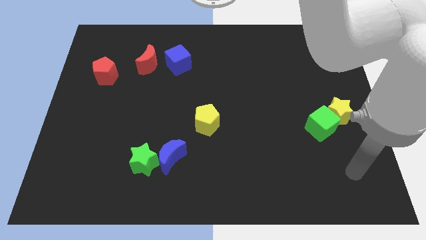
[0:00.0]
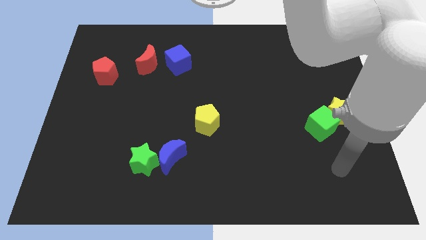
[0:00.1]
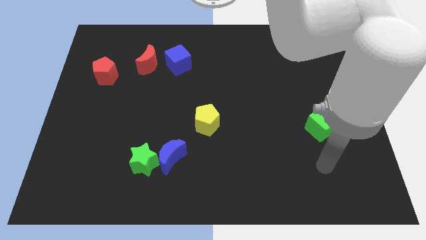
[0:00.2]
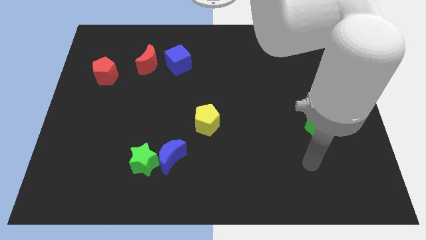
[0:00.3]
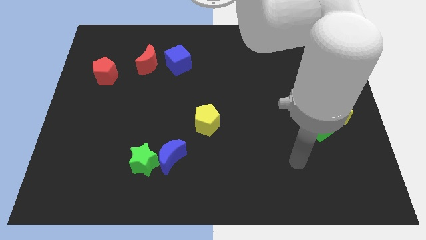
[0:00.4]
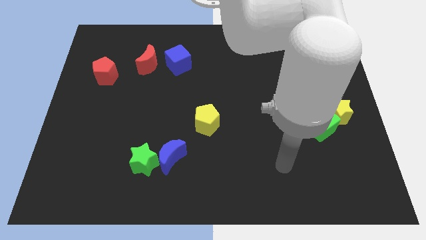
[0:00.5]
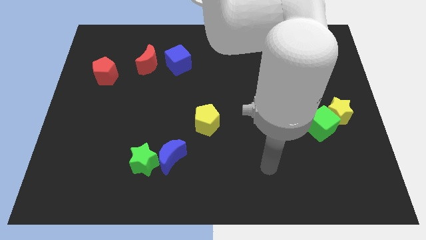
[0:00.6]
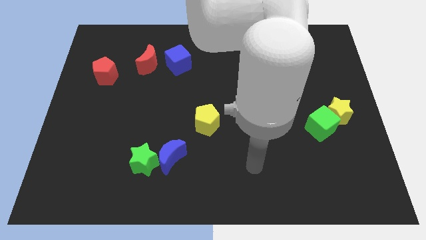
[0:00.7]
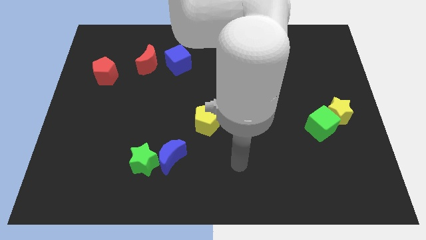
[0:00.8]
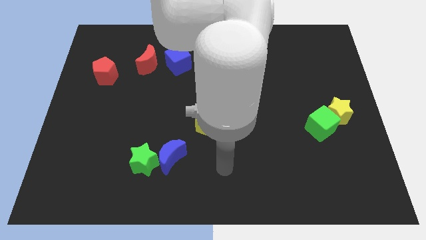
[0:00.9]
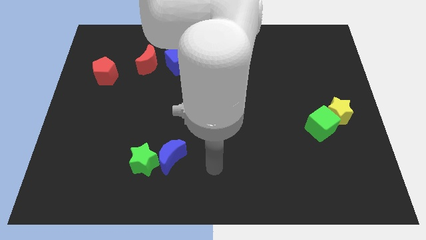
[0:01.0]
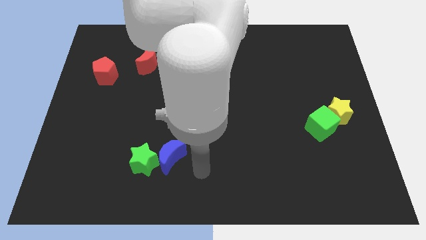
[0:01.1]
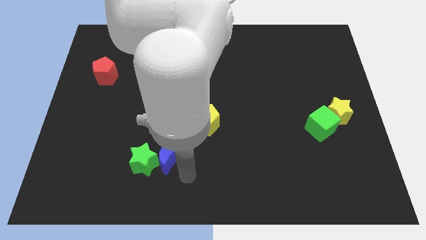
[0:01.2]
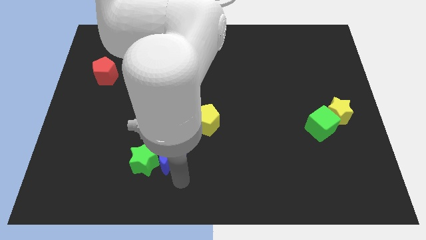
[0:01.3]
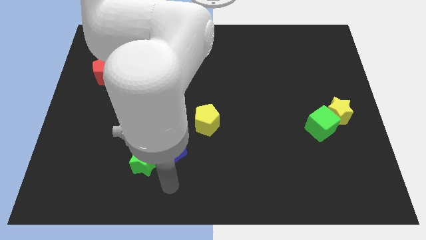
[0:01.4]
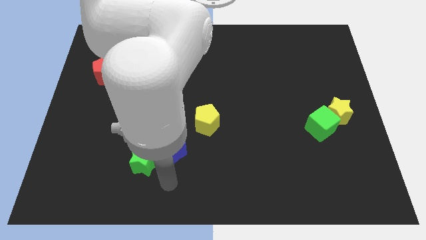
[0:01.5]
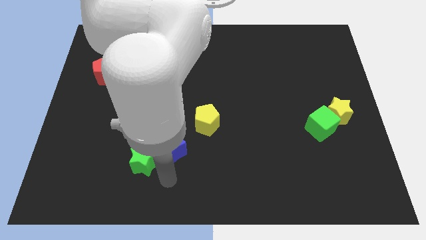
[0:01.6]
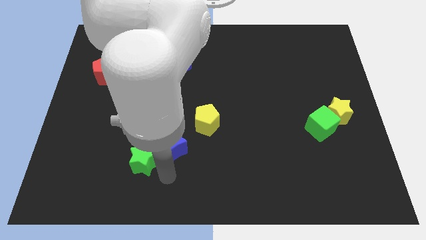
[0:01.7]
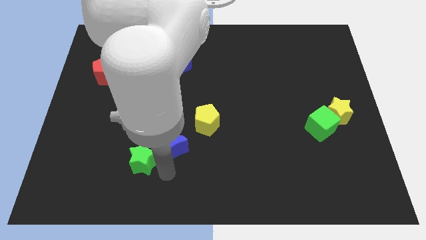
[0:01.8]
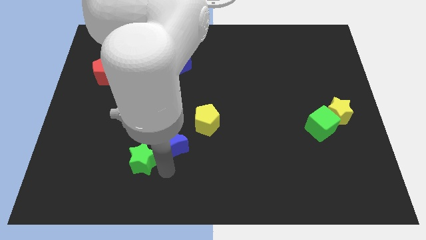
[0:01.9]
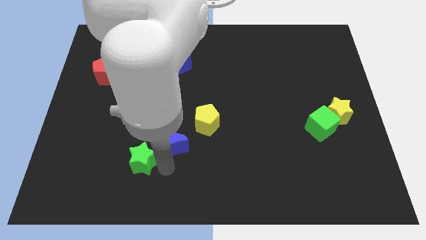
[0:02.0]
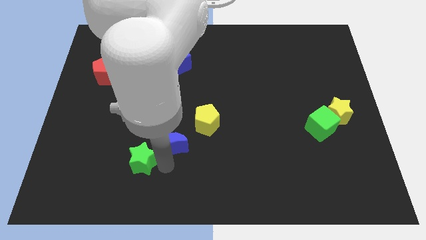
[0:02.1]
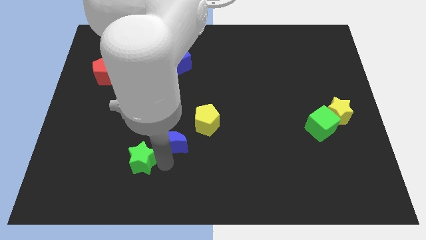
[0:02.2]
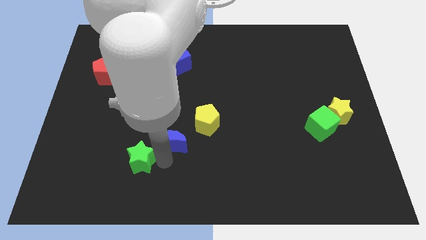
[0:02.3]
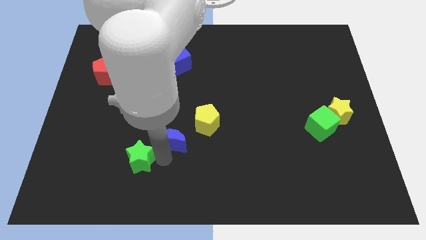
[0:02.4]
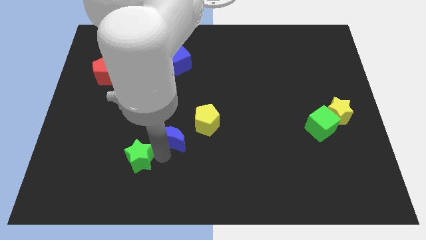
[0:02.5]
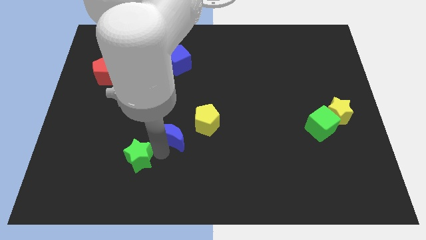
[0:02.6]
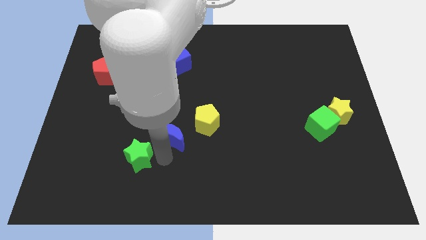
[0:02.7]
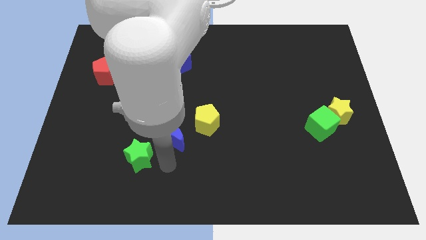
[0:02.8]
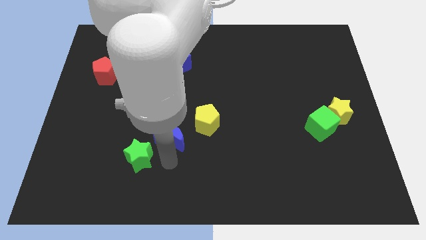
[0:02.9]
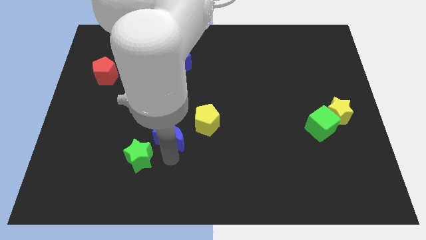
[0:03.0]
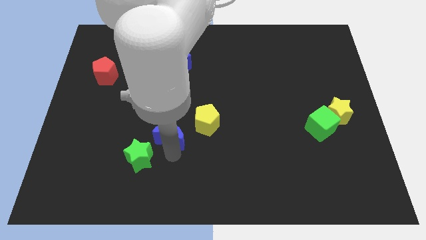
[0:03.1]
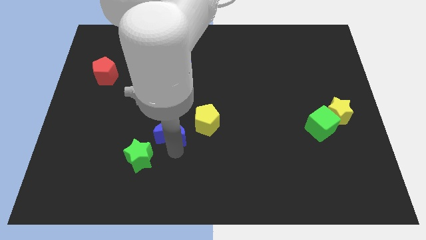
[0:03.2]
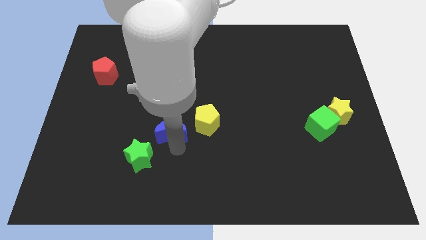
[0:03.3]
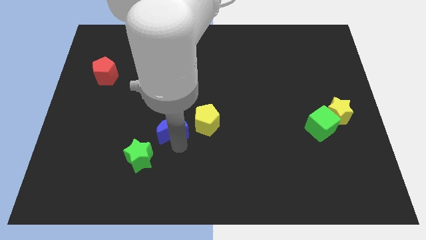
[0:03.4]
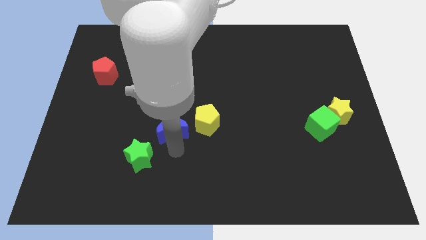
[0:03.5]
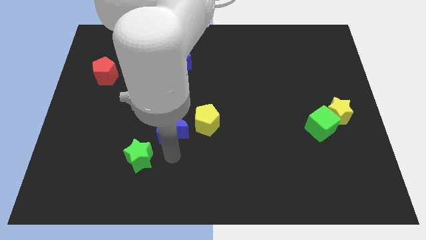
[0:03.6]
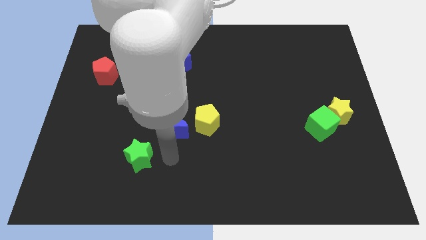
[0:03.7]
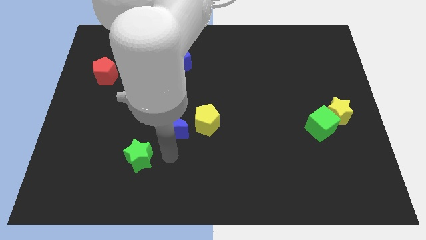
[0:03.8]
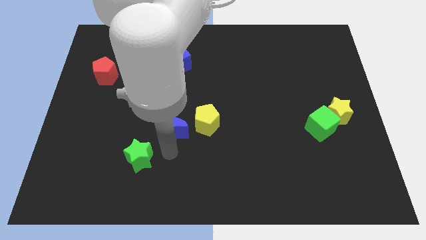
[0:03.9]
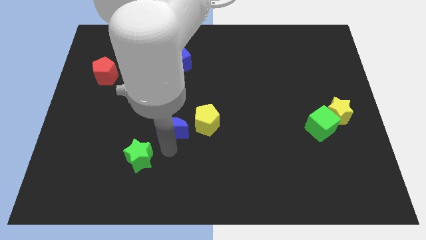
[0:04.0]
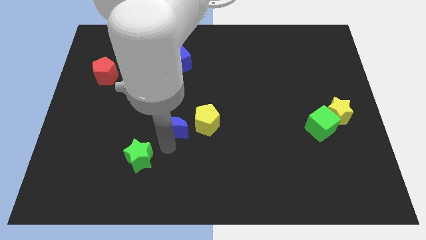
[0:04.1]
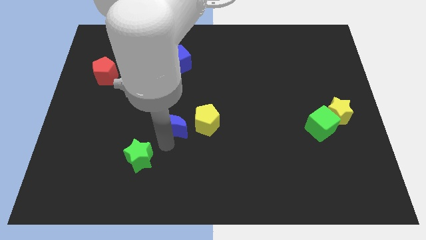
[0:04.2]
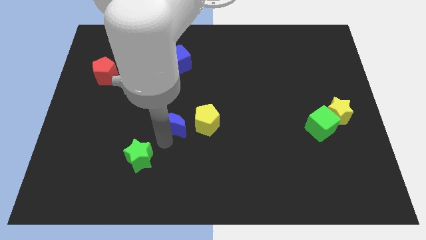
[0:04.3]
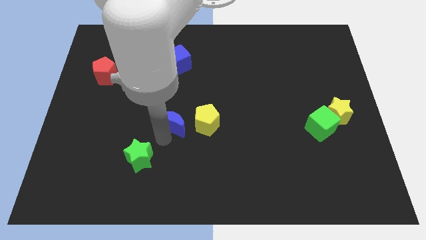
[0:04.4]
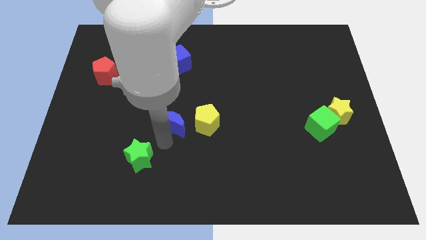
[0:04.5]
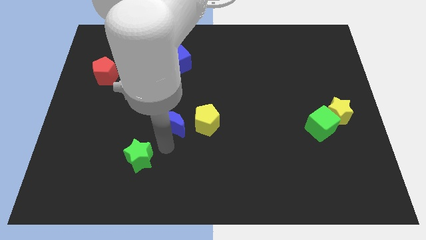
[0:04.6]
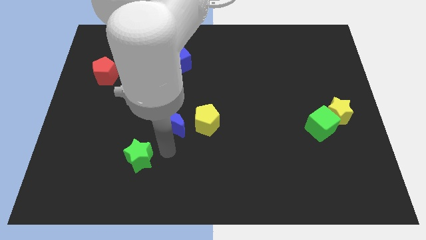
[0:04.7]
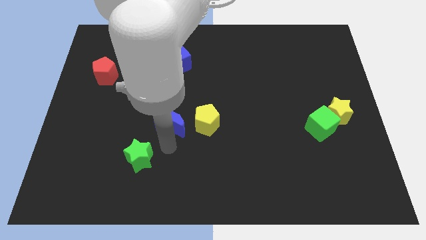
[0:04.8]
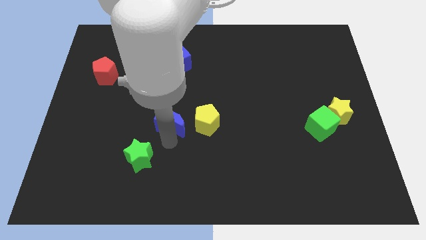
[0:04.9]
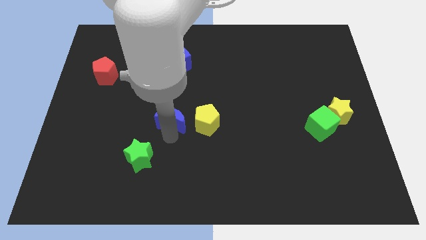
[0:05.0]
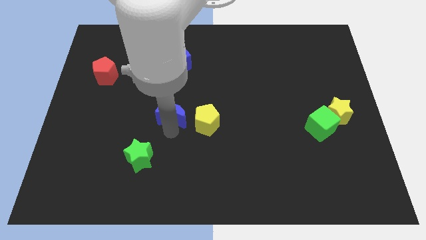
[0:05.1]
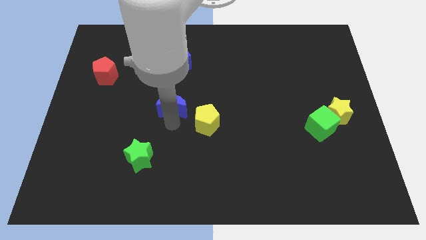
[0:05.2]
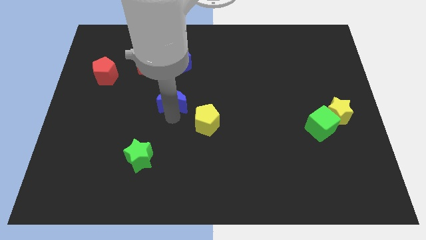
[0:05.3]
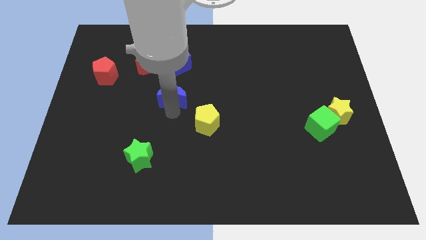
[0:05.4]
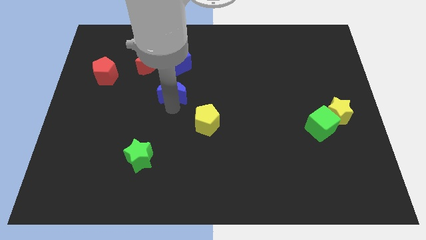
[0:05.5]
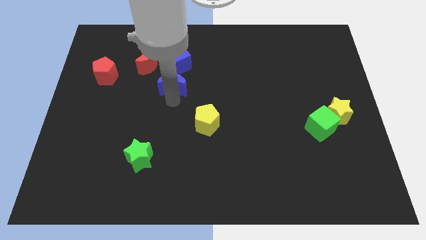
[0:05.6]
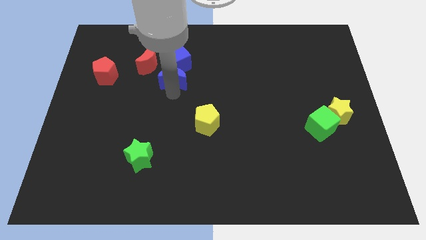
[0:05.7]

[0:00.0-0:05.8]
put the blue moon close to the blue cube

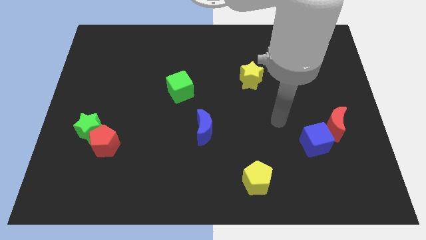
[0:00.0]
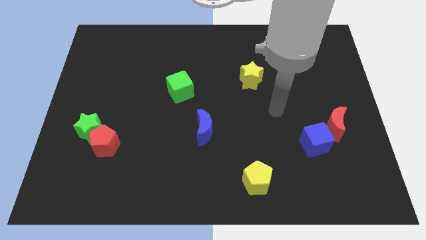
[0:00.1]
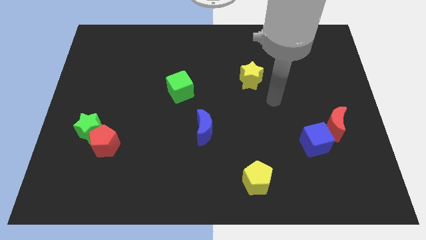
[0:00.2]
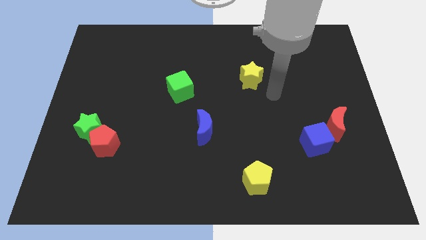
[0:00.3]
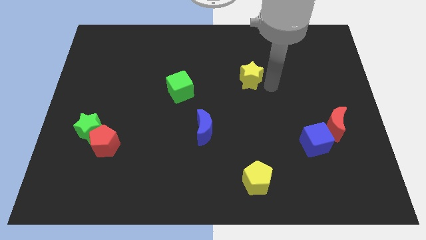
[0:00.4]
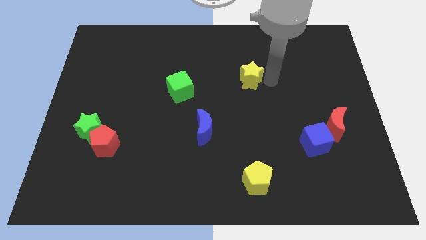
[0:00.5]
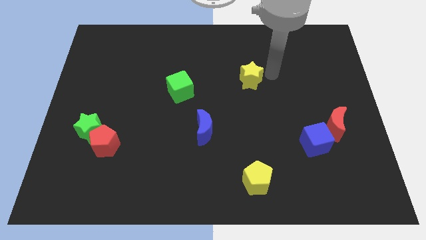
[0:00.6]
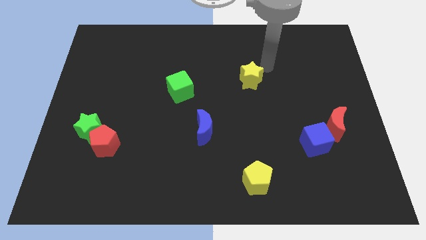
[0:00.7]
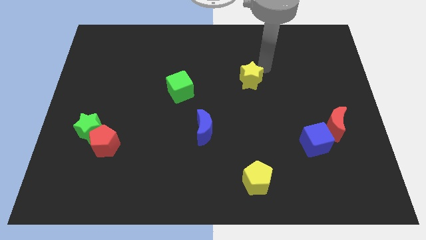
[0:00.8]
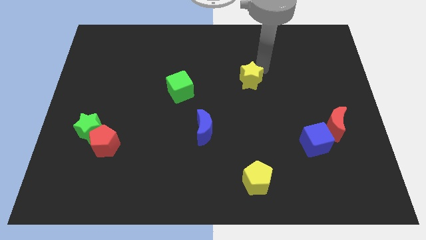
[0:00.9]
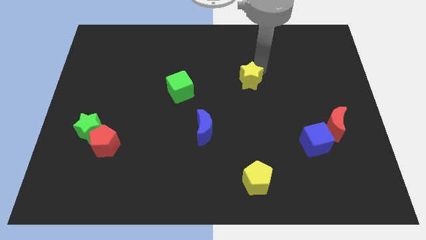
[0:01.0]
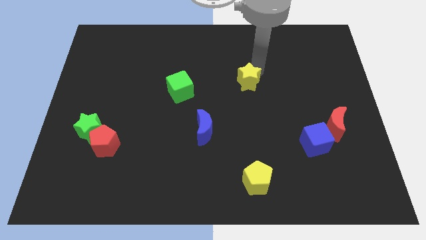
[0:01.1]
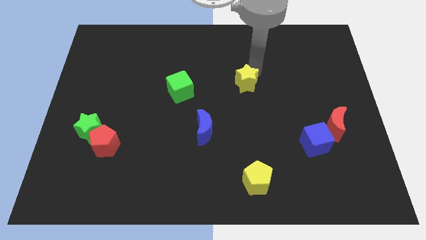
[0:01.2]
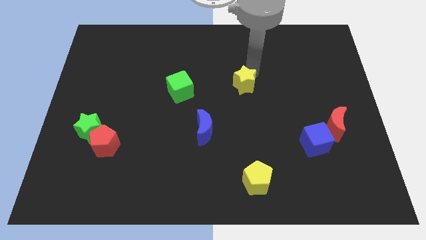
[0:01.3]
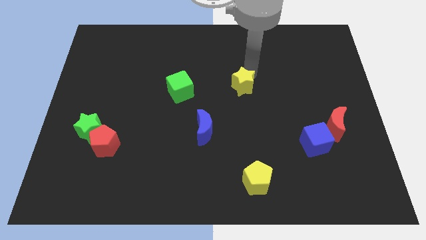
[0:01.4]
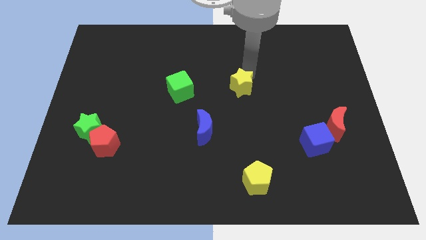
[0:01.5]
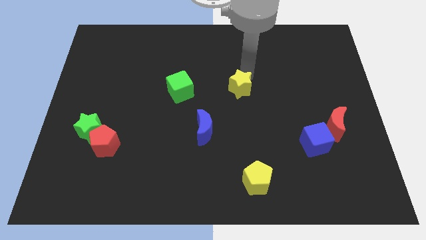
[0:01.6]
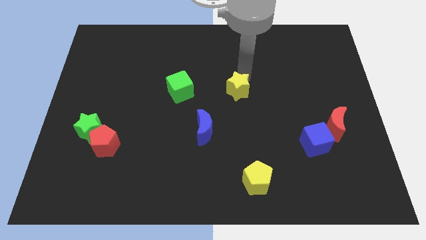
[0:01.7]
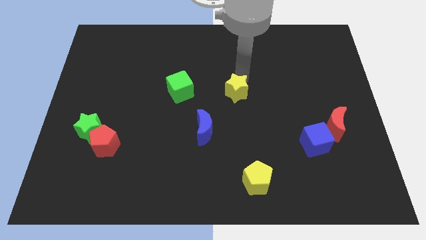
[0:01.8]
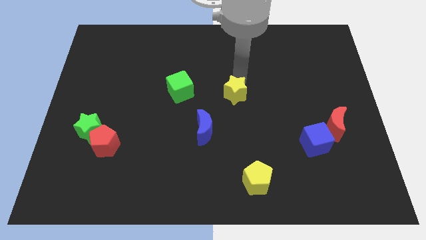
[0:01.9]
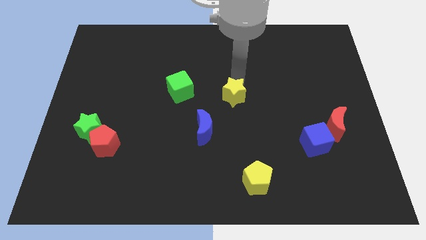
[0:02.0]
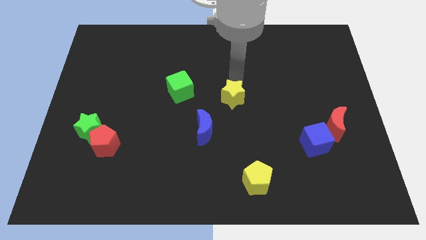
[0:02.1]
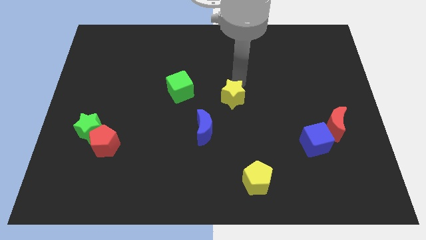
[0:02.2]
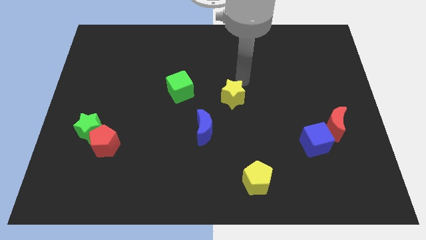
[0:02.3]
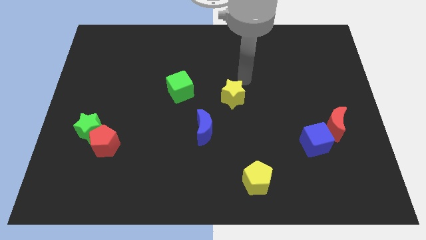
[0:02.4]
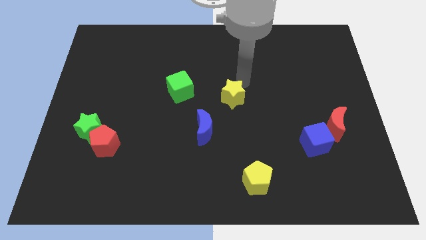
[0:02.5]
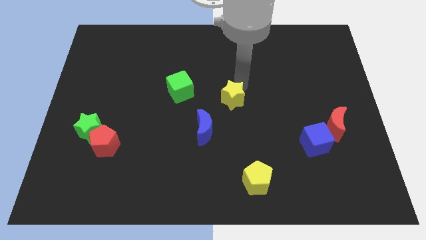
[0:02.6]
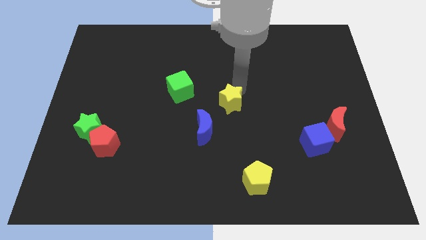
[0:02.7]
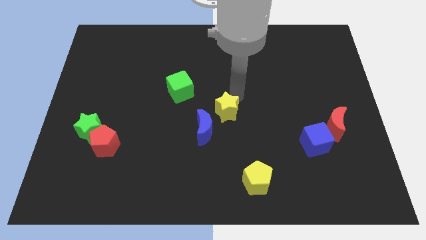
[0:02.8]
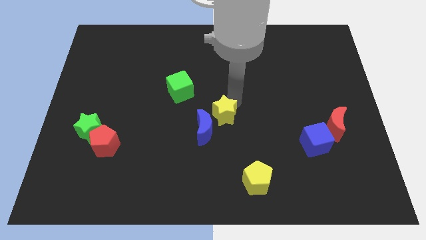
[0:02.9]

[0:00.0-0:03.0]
move the yellow star close to the blue moon
